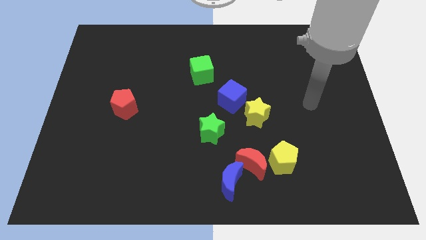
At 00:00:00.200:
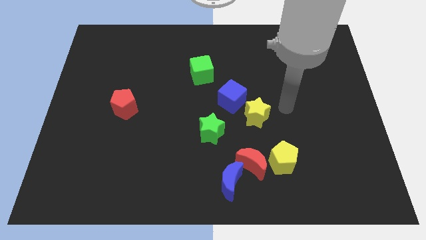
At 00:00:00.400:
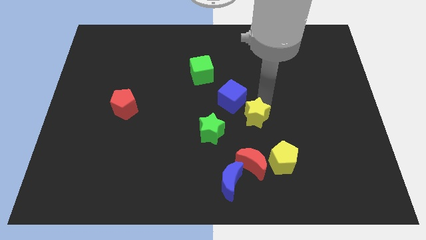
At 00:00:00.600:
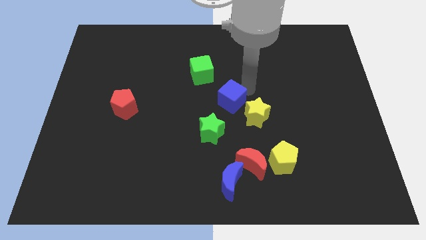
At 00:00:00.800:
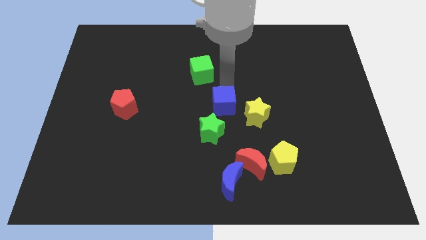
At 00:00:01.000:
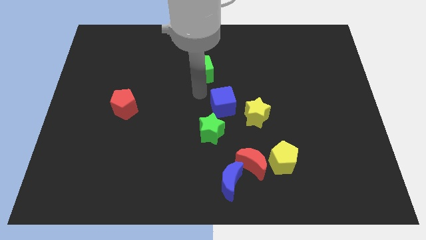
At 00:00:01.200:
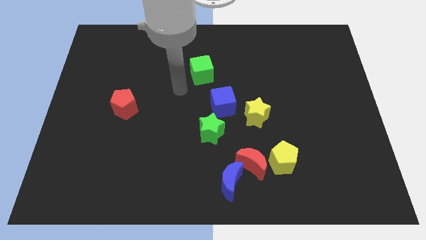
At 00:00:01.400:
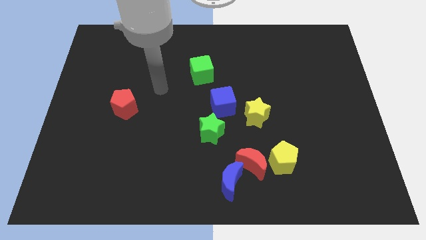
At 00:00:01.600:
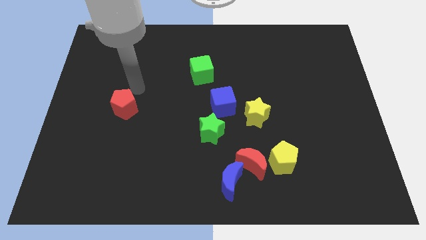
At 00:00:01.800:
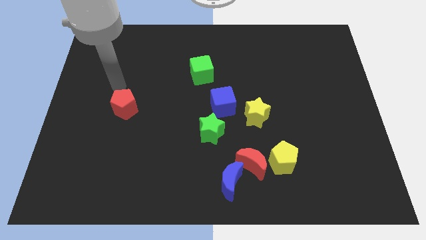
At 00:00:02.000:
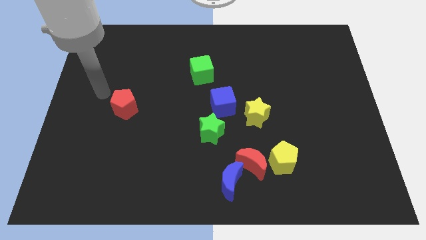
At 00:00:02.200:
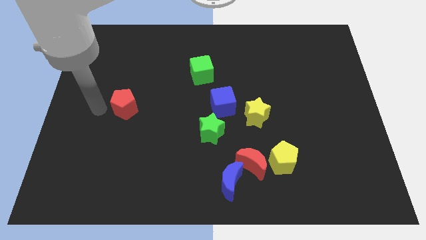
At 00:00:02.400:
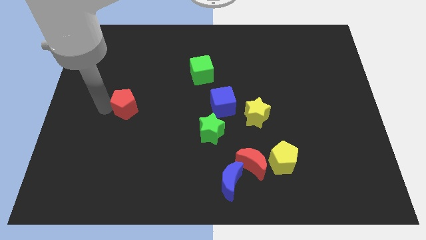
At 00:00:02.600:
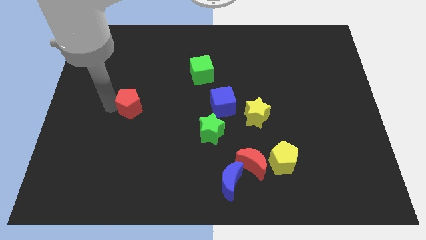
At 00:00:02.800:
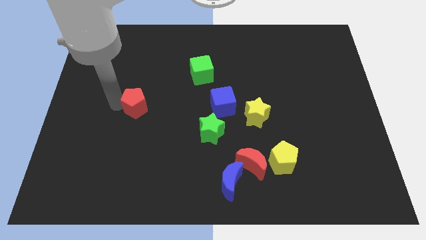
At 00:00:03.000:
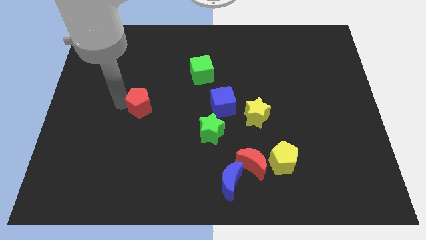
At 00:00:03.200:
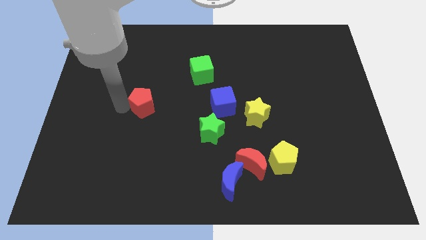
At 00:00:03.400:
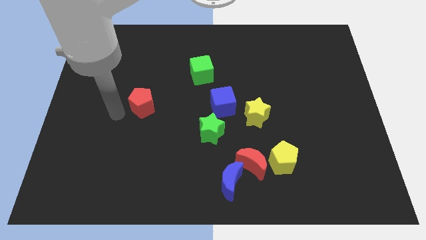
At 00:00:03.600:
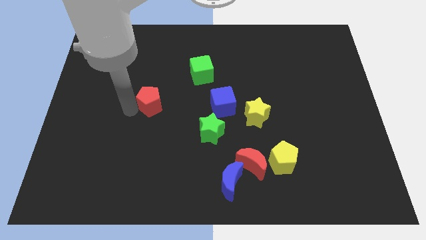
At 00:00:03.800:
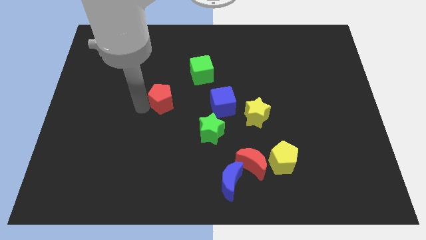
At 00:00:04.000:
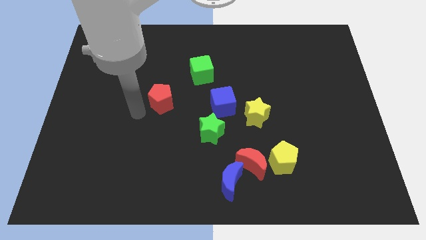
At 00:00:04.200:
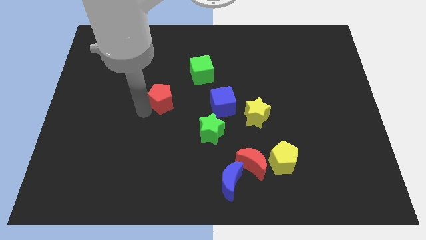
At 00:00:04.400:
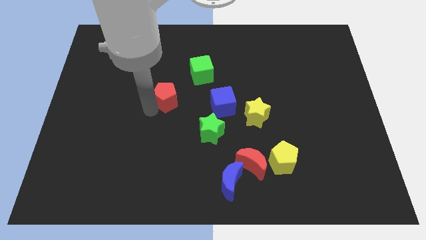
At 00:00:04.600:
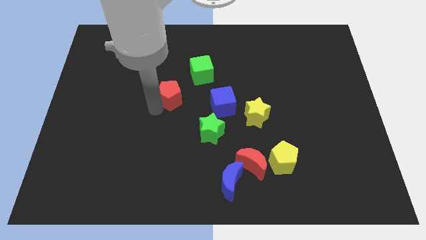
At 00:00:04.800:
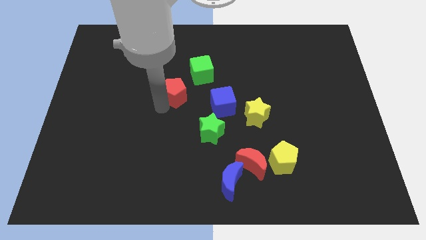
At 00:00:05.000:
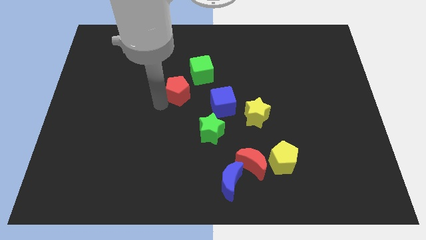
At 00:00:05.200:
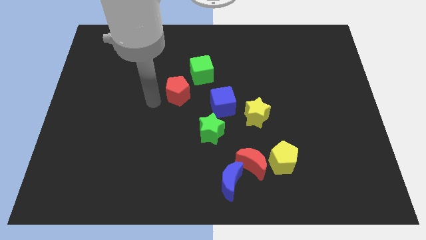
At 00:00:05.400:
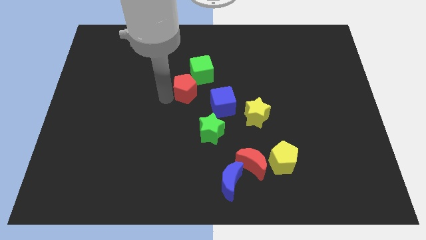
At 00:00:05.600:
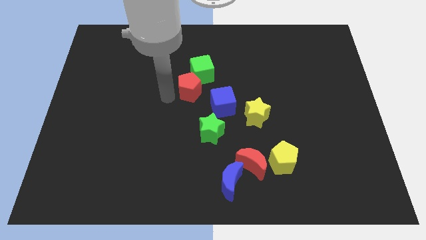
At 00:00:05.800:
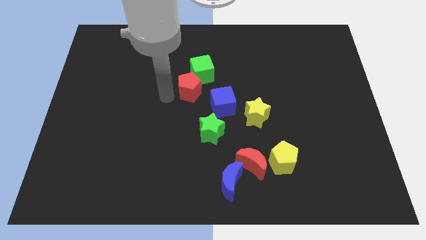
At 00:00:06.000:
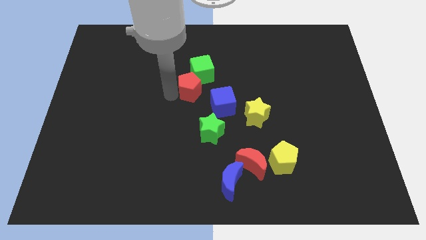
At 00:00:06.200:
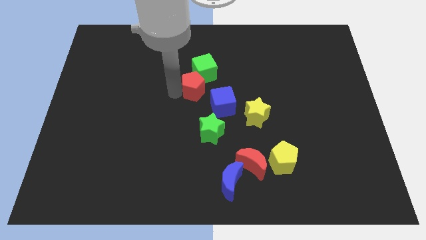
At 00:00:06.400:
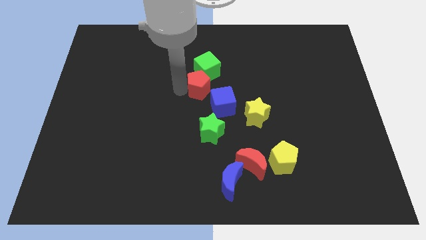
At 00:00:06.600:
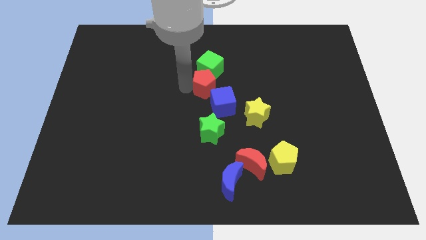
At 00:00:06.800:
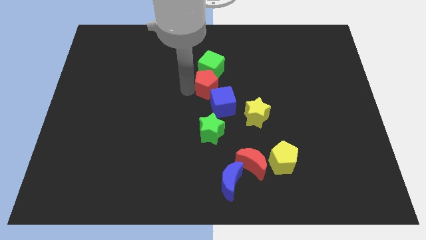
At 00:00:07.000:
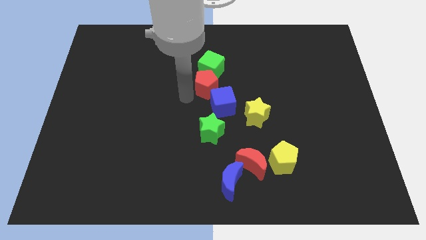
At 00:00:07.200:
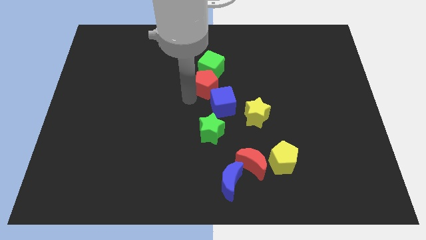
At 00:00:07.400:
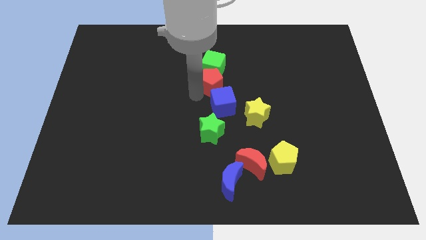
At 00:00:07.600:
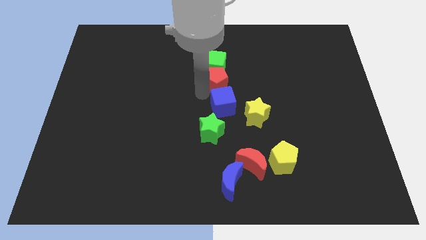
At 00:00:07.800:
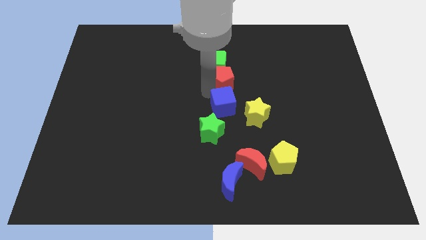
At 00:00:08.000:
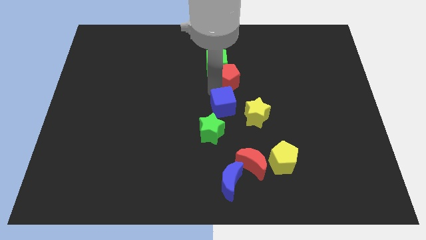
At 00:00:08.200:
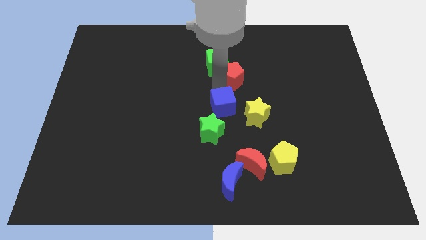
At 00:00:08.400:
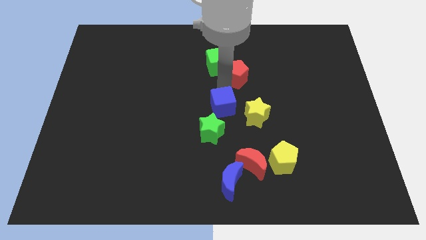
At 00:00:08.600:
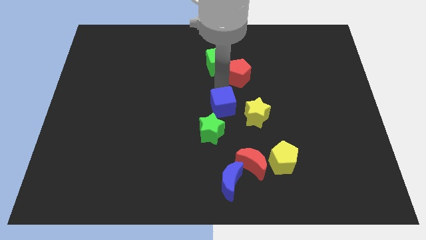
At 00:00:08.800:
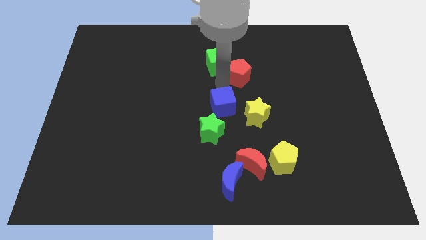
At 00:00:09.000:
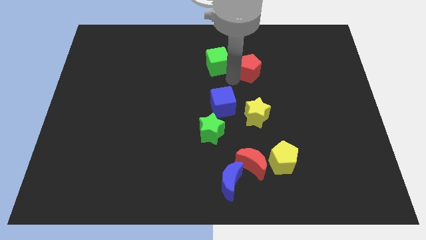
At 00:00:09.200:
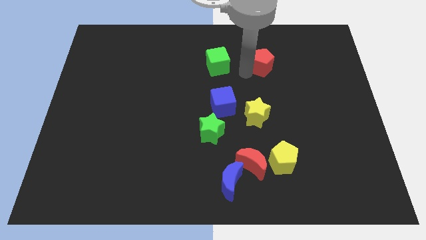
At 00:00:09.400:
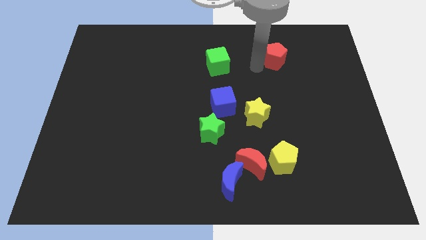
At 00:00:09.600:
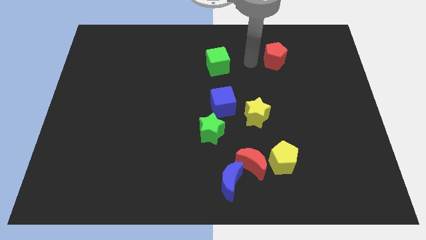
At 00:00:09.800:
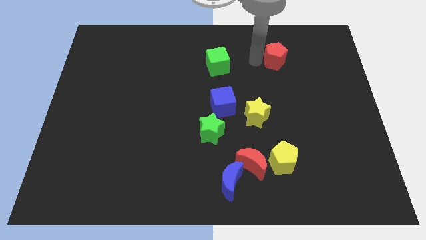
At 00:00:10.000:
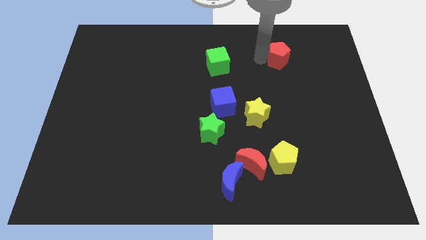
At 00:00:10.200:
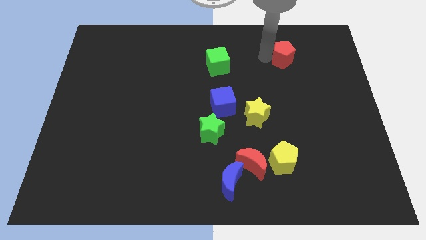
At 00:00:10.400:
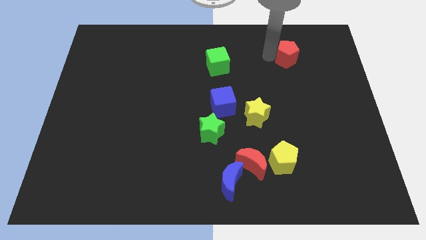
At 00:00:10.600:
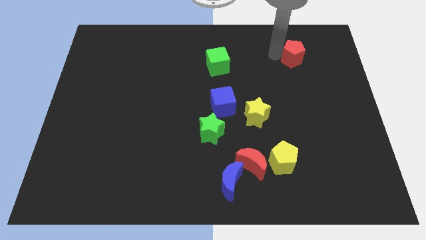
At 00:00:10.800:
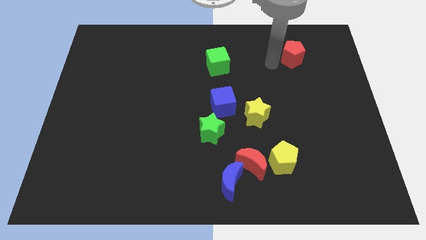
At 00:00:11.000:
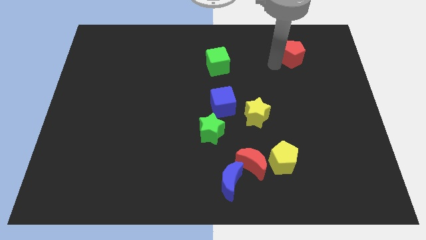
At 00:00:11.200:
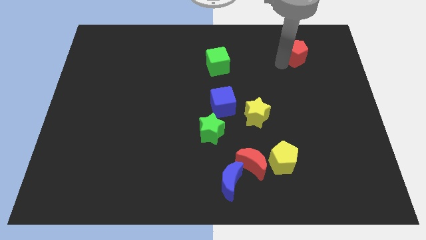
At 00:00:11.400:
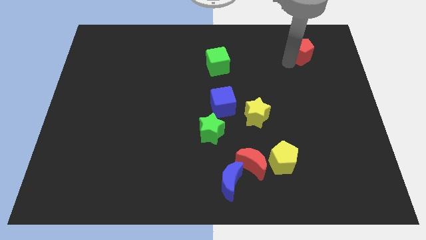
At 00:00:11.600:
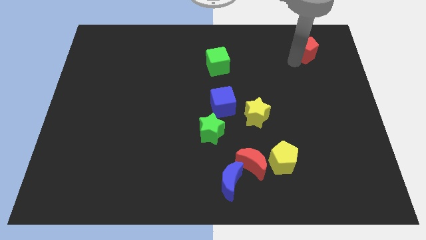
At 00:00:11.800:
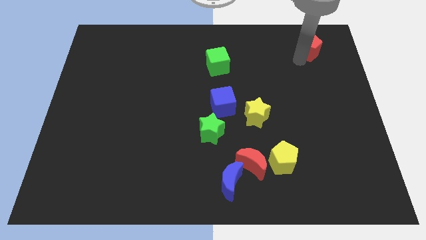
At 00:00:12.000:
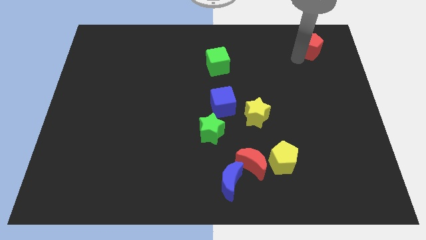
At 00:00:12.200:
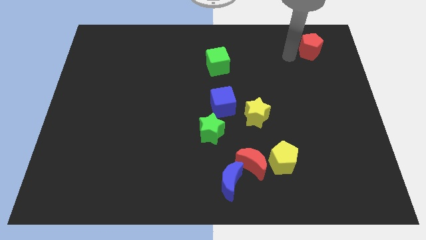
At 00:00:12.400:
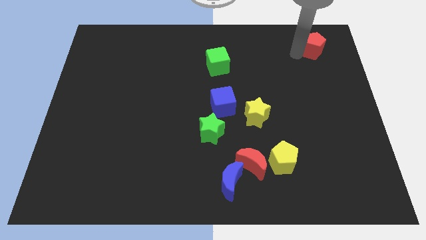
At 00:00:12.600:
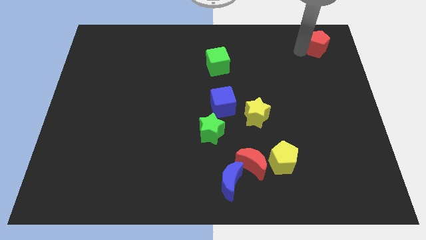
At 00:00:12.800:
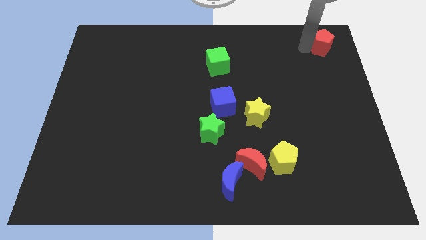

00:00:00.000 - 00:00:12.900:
put the red pentagon to the top right of the board
